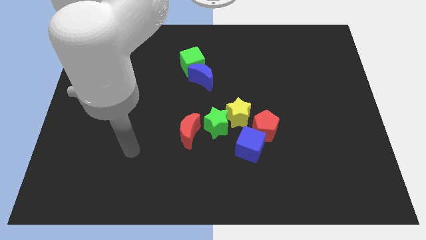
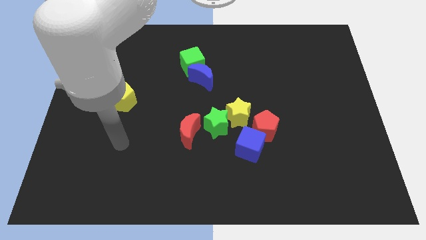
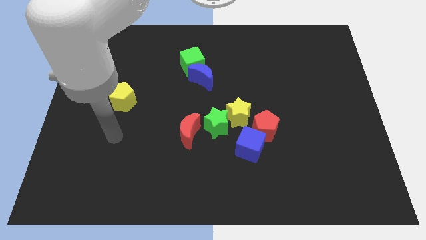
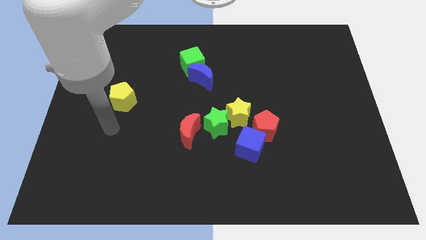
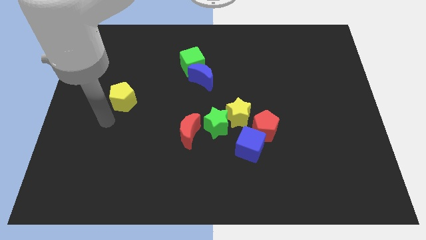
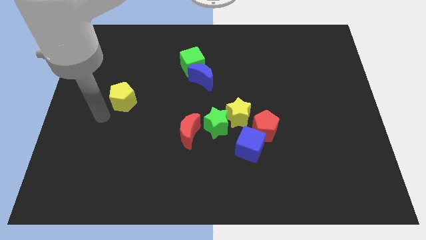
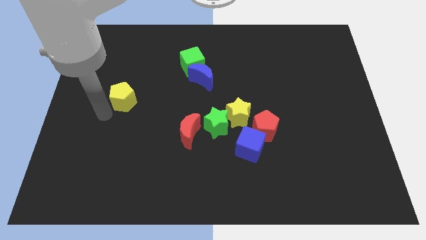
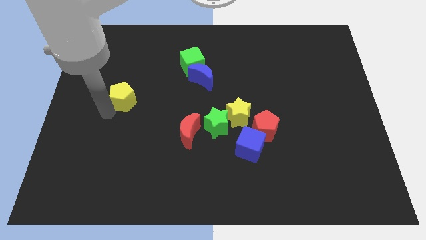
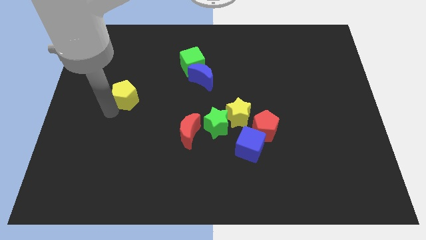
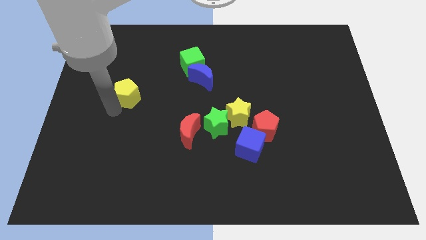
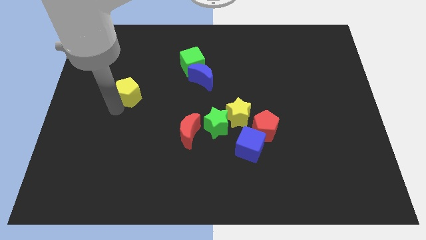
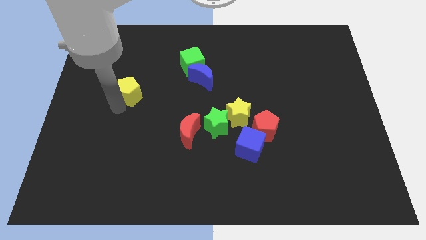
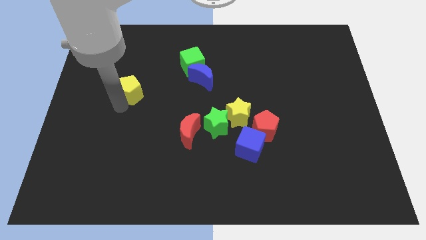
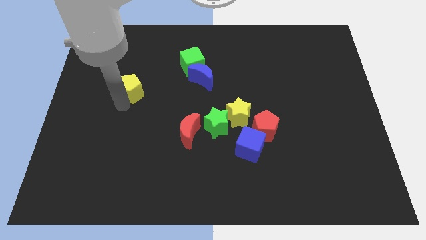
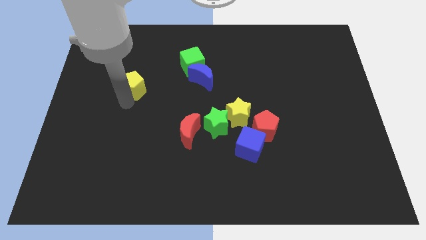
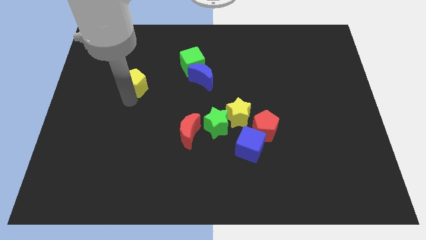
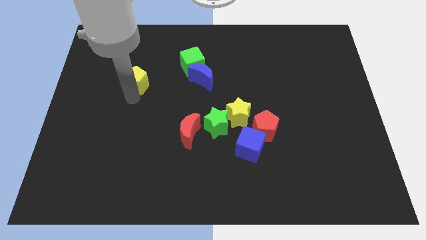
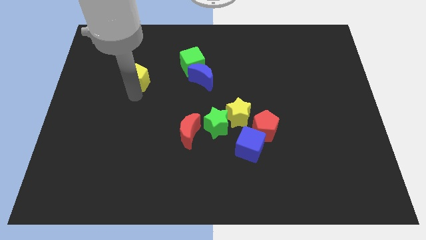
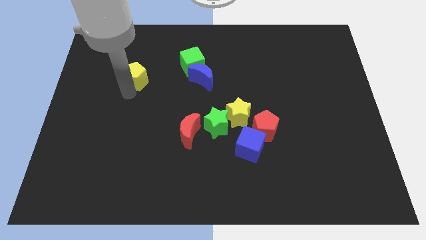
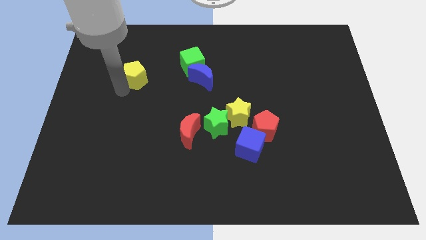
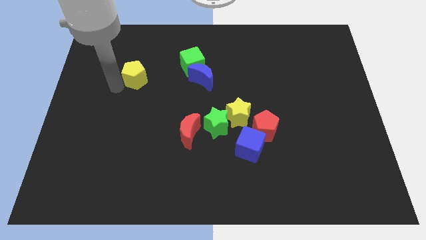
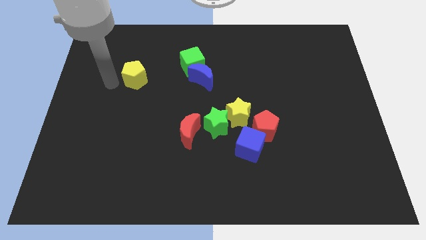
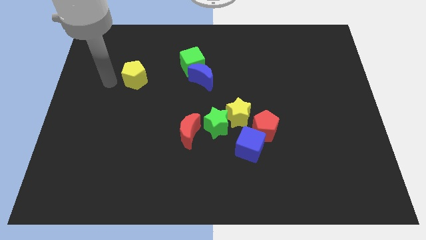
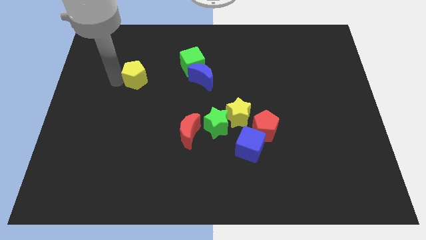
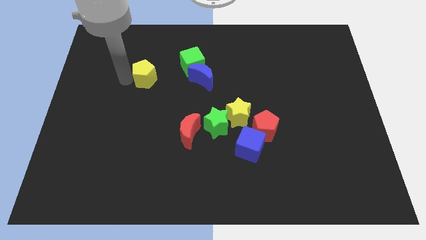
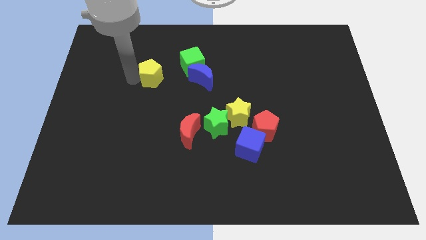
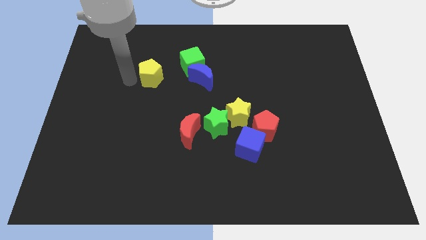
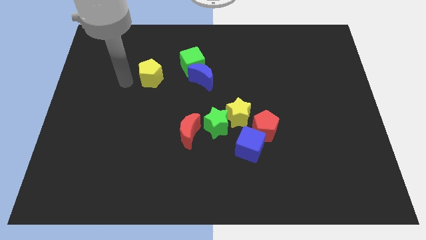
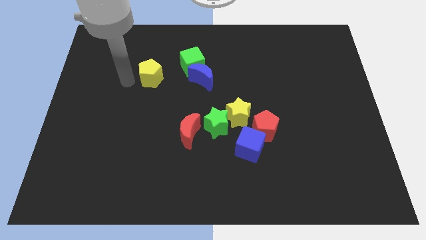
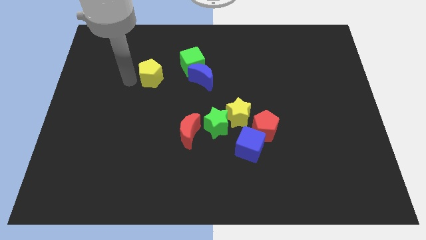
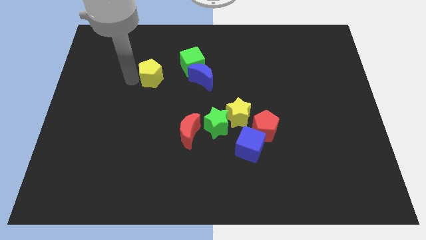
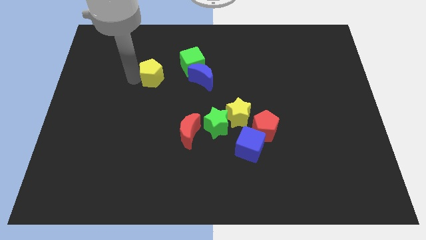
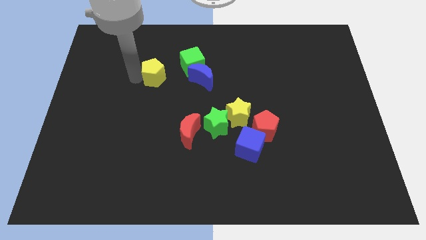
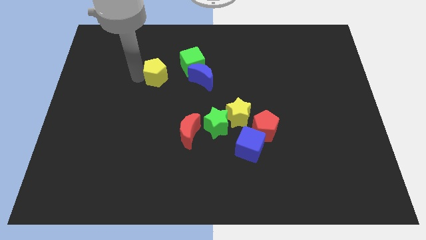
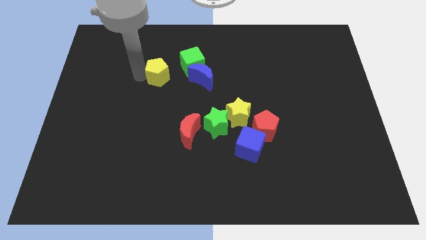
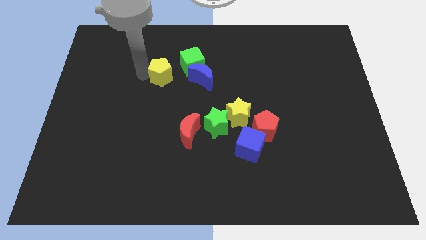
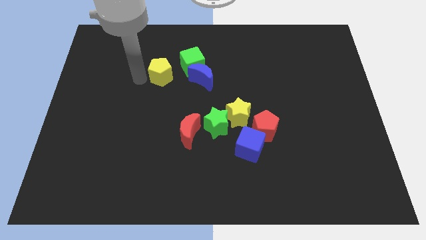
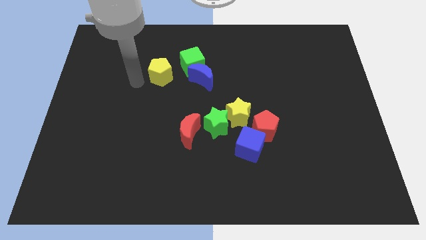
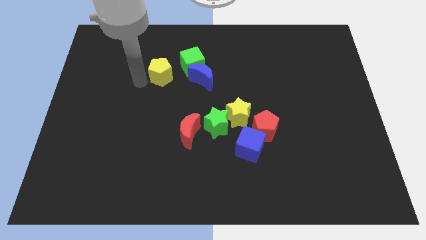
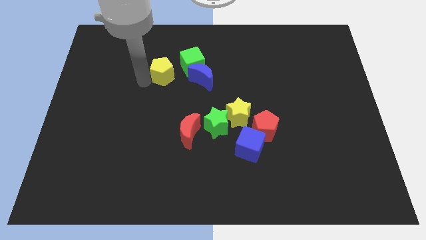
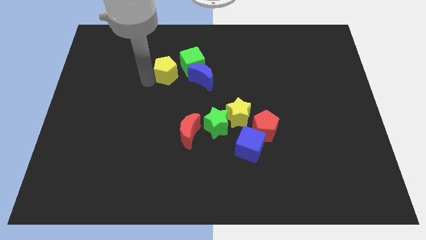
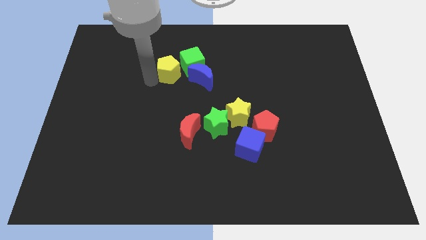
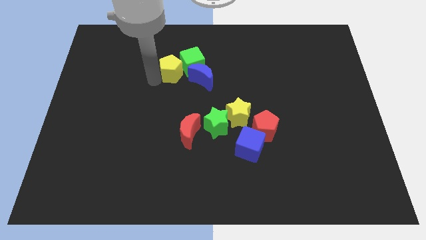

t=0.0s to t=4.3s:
move the yellow pentagon towards the green cube

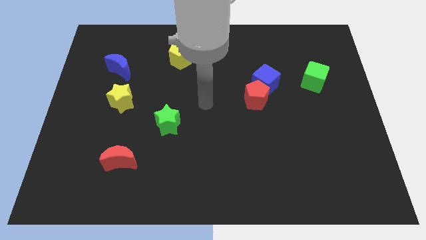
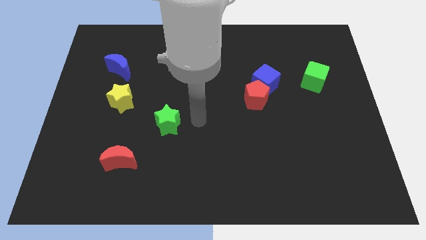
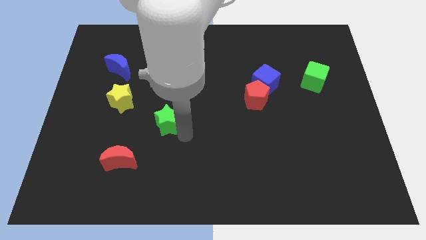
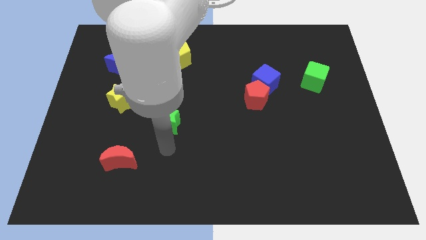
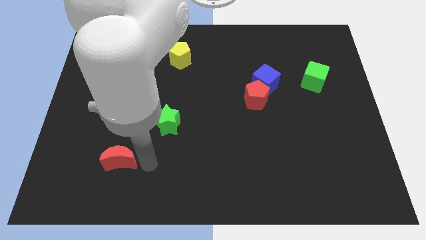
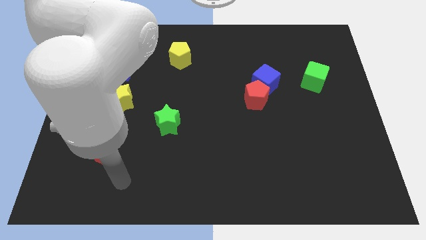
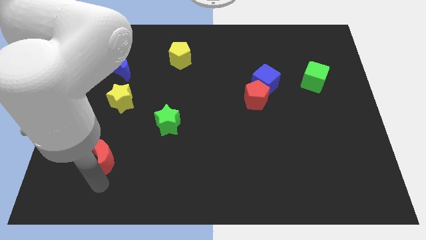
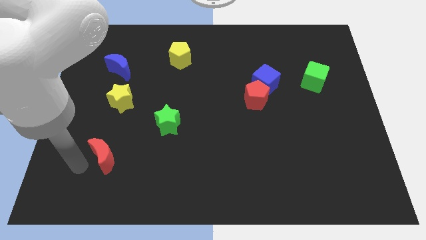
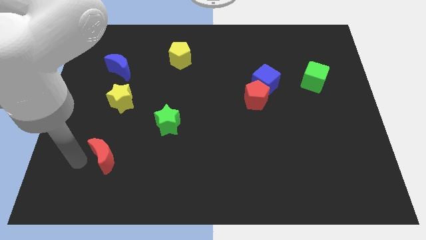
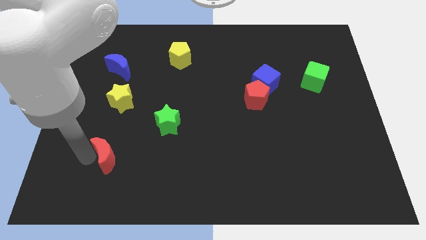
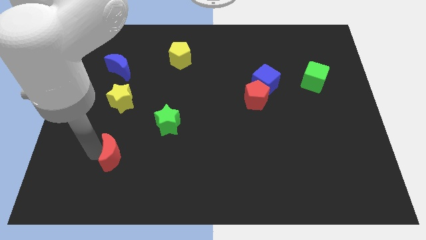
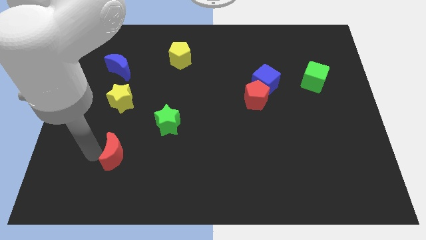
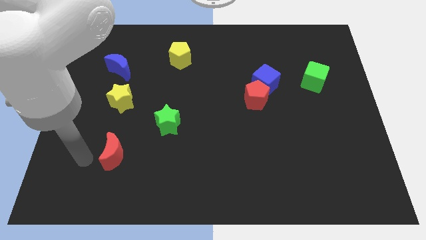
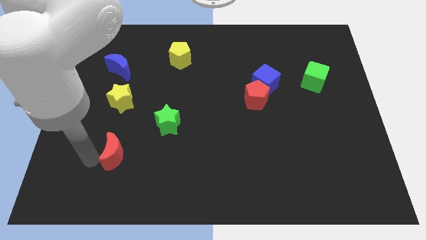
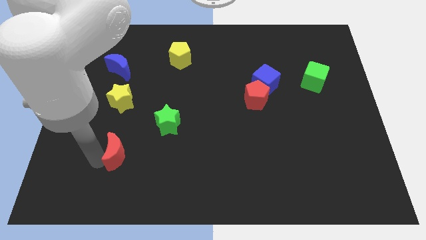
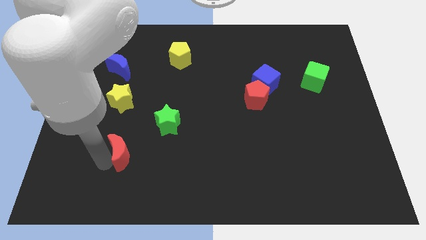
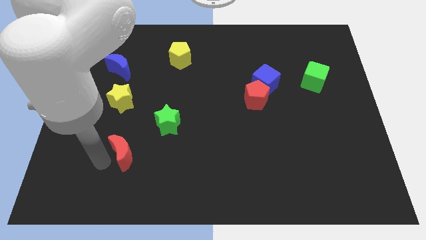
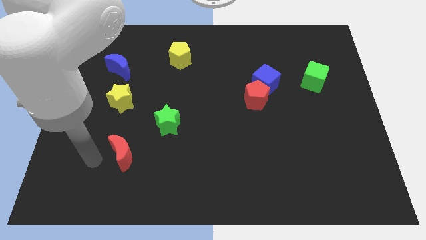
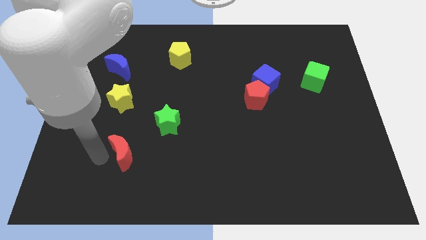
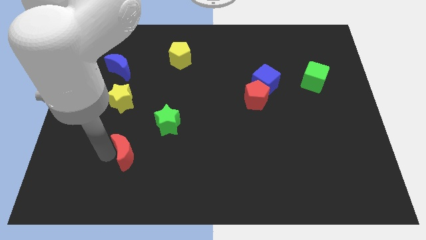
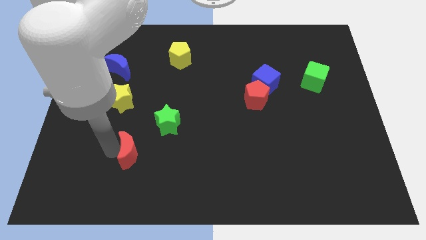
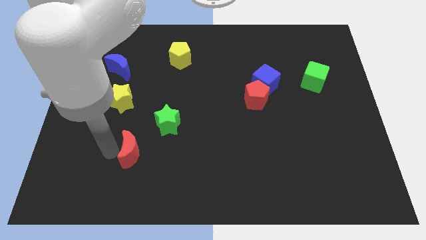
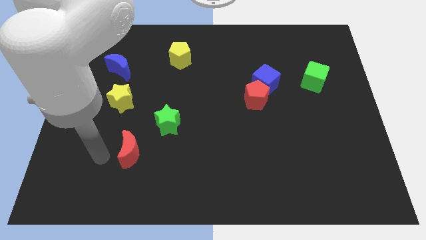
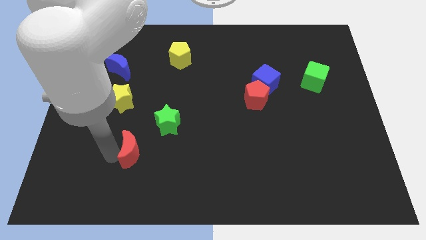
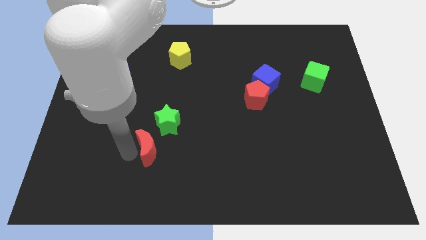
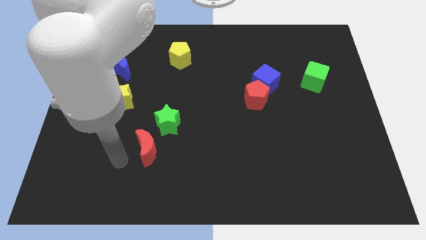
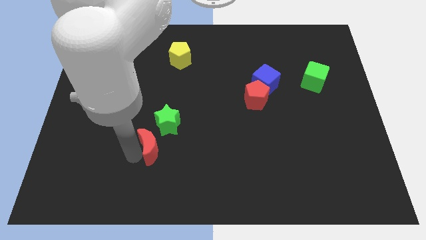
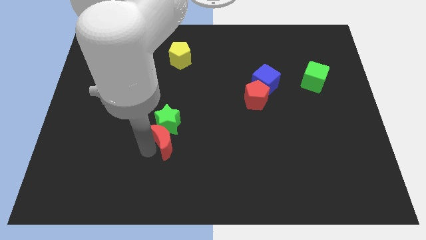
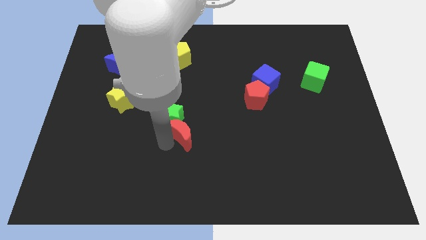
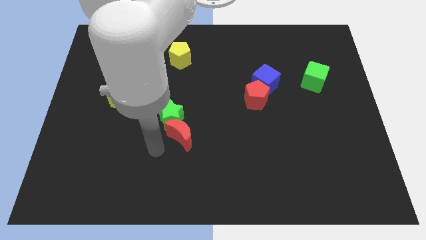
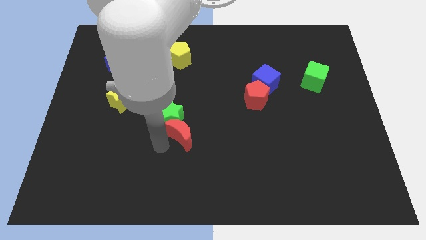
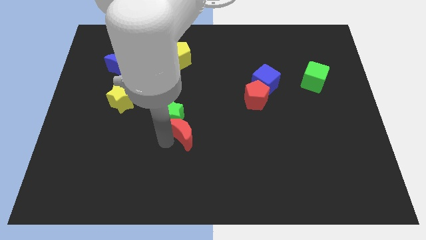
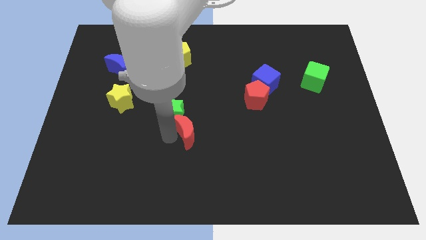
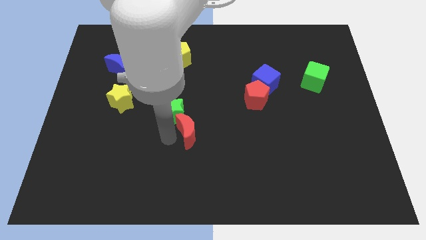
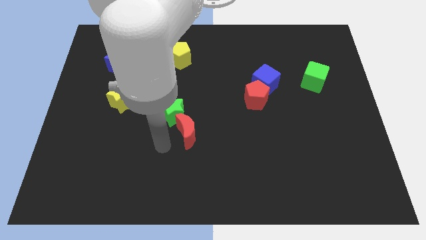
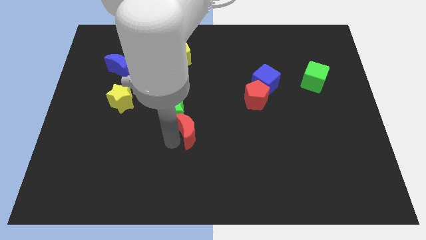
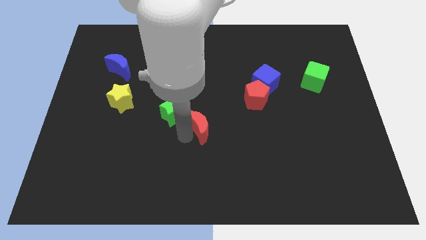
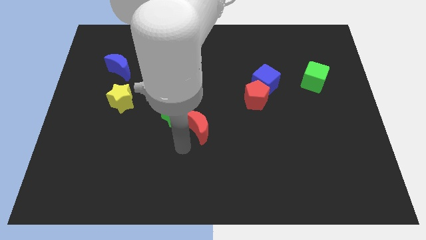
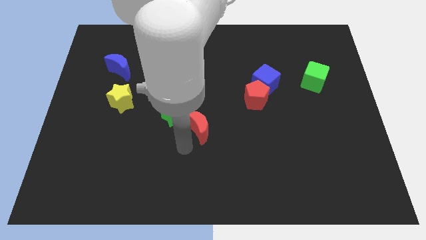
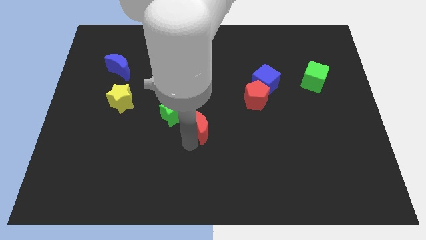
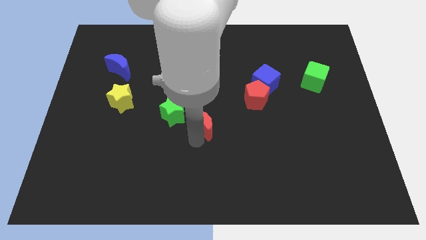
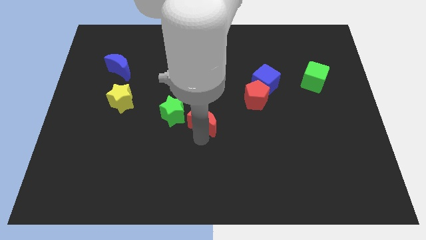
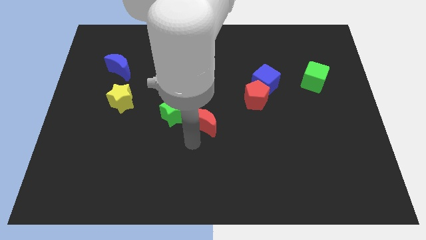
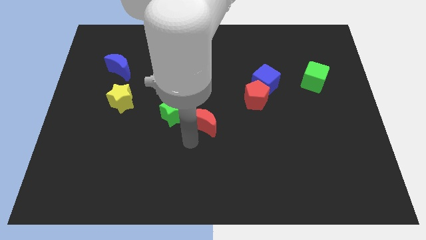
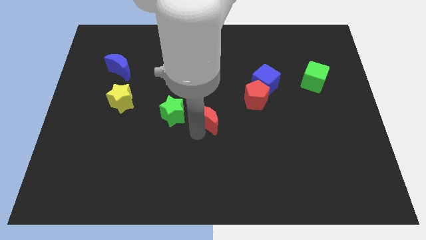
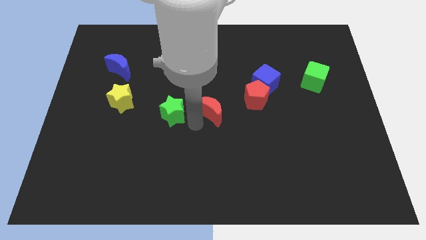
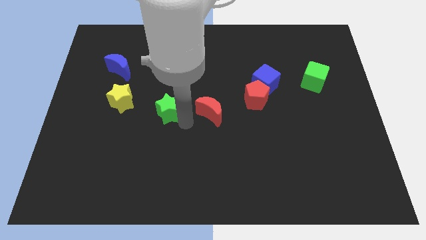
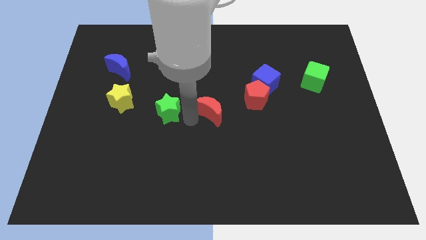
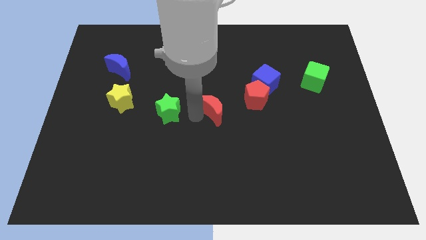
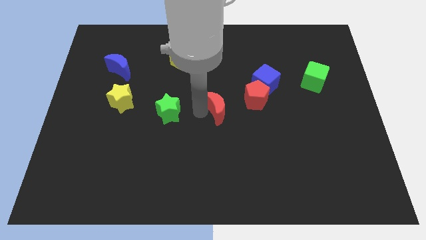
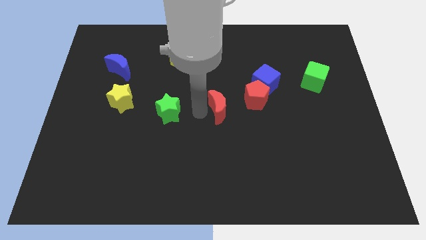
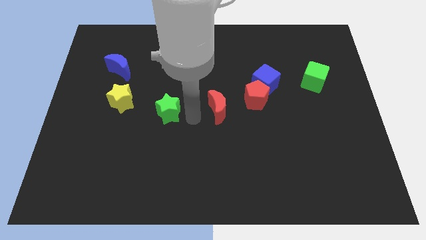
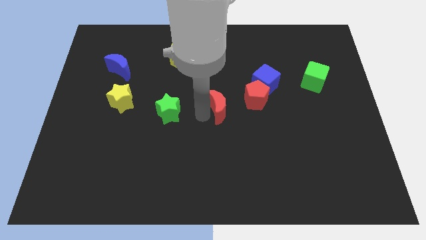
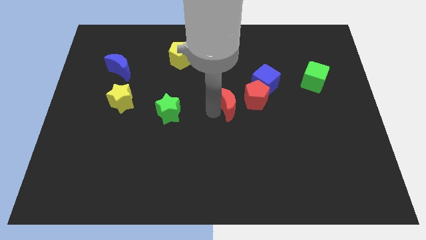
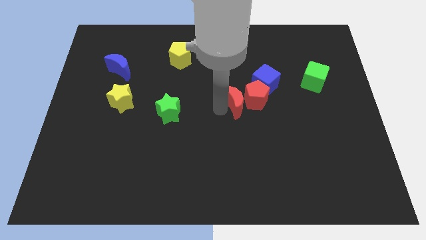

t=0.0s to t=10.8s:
slide the red moon next to the red pentagon
